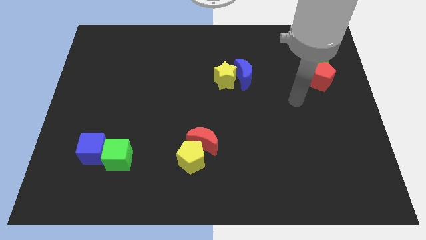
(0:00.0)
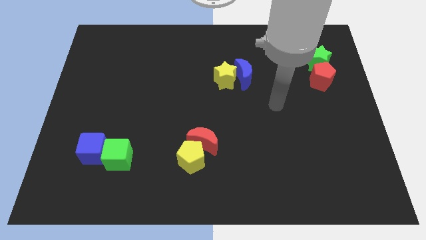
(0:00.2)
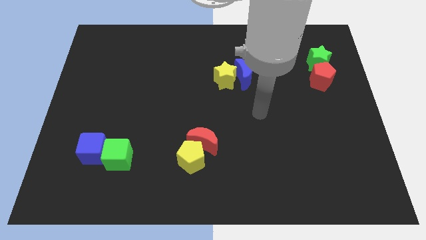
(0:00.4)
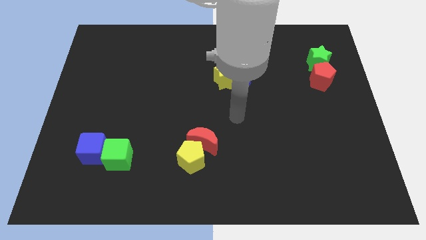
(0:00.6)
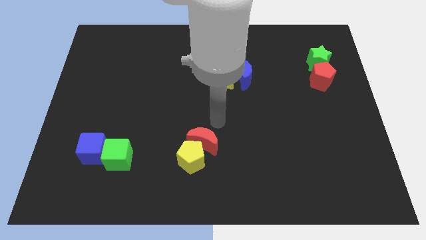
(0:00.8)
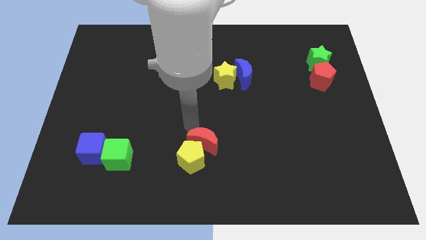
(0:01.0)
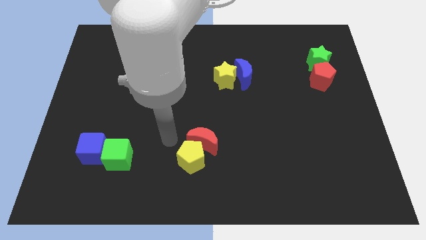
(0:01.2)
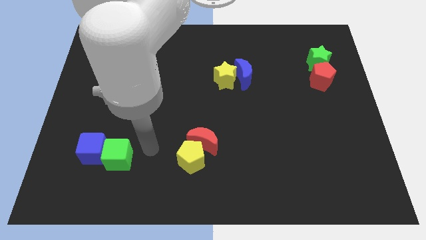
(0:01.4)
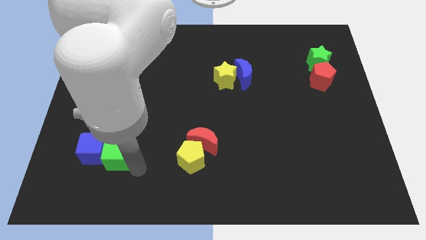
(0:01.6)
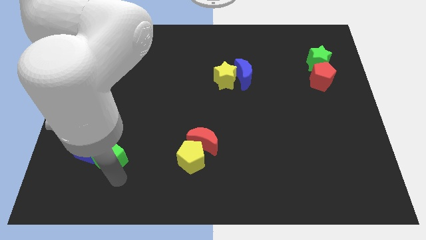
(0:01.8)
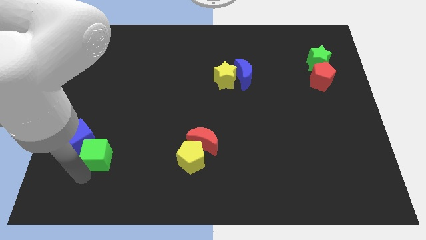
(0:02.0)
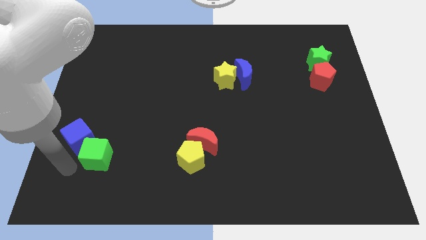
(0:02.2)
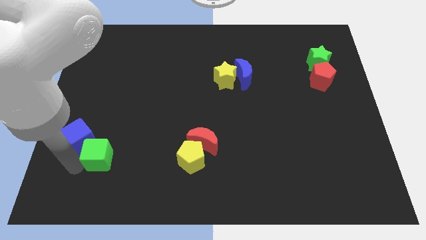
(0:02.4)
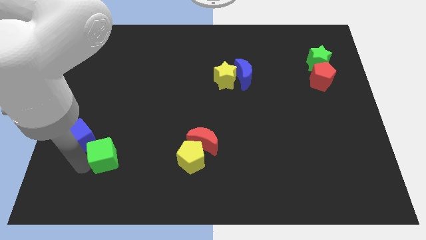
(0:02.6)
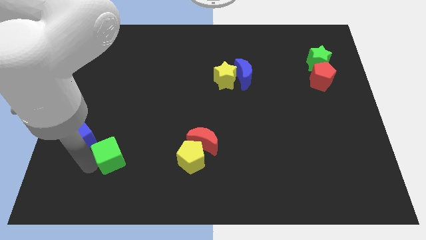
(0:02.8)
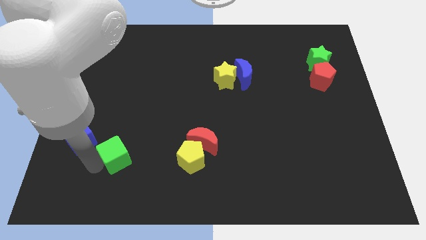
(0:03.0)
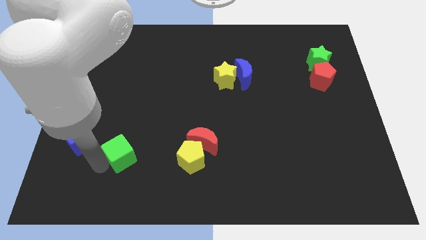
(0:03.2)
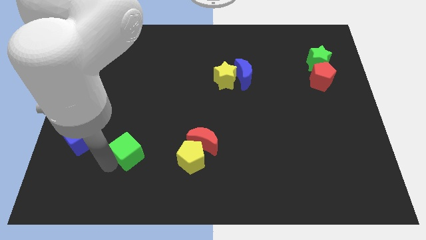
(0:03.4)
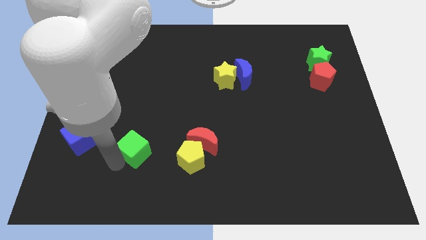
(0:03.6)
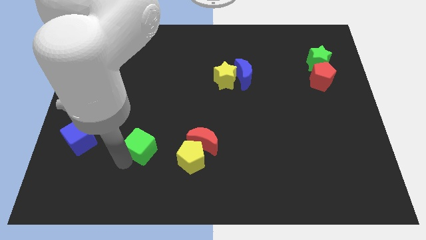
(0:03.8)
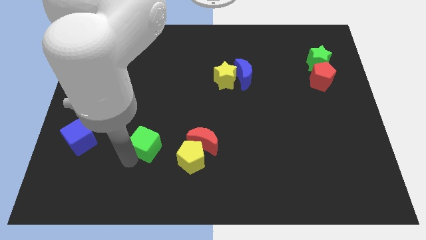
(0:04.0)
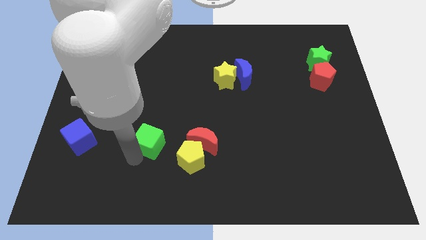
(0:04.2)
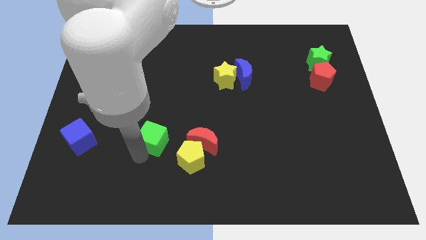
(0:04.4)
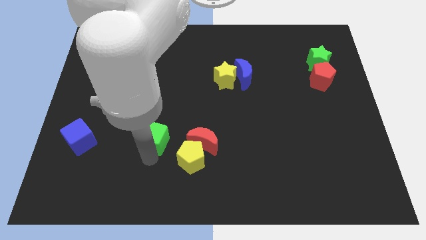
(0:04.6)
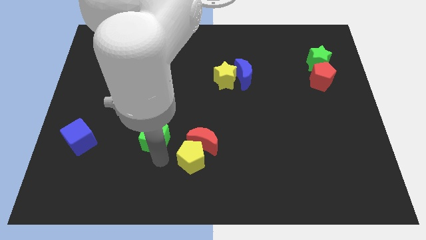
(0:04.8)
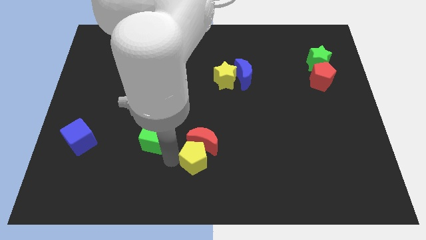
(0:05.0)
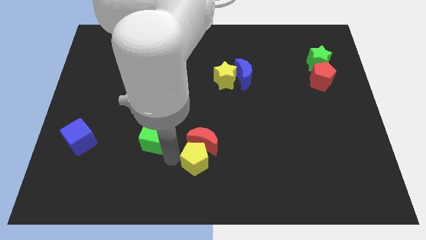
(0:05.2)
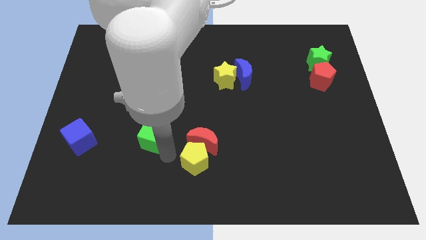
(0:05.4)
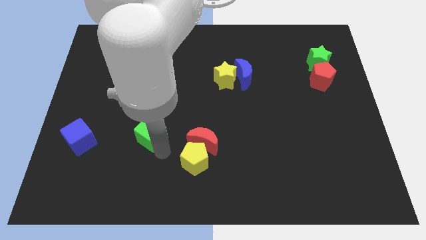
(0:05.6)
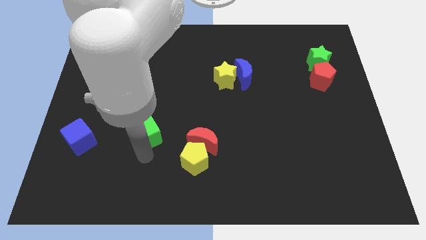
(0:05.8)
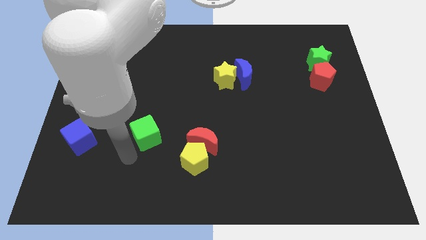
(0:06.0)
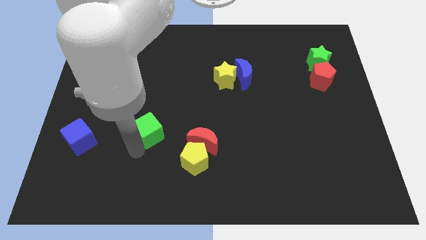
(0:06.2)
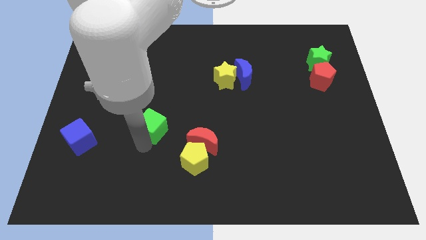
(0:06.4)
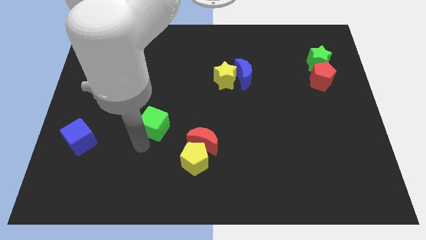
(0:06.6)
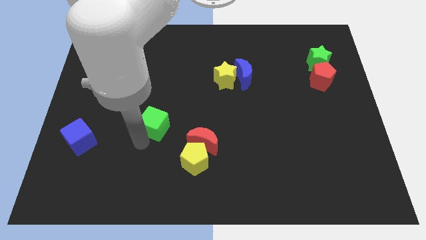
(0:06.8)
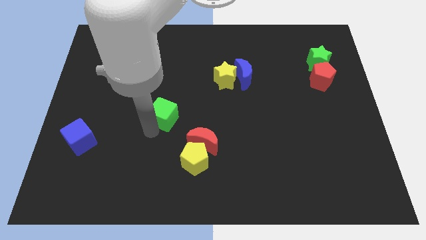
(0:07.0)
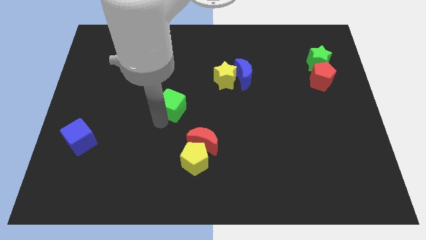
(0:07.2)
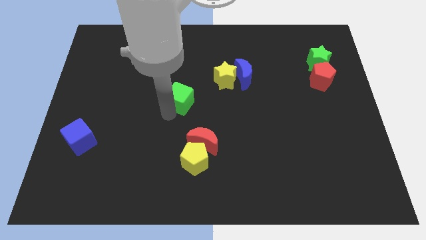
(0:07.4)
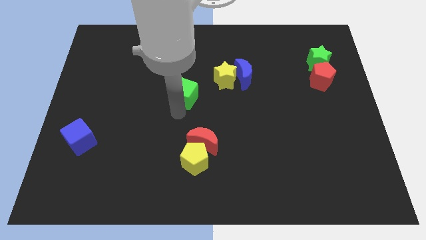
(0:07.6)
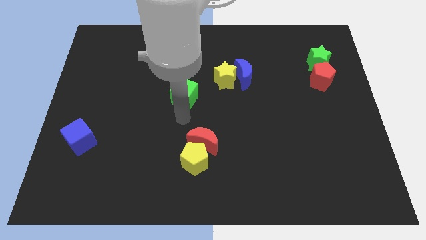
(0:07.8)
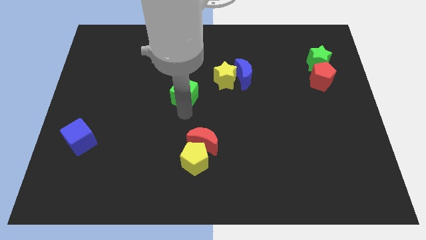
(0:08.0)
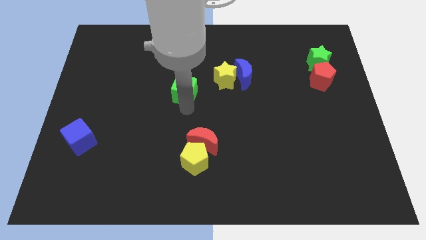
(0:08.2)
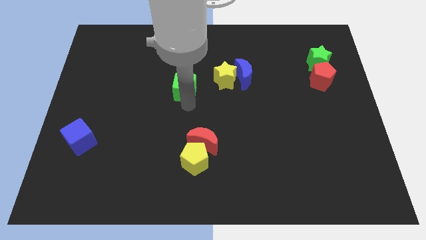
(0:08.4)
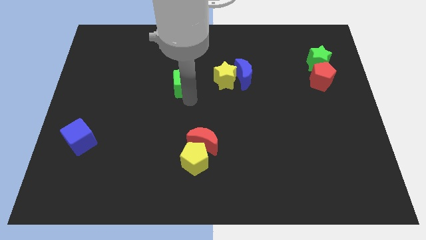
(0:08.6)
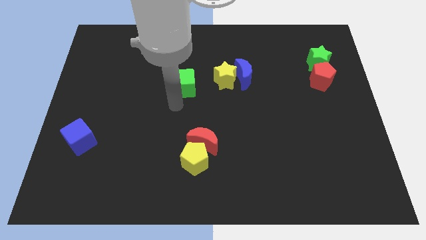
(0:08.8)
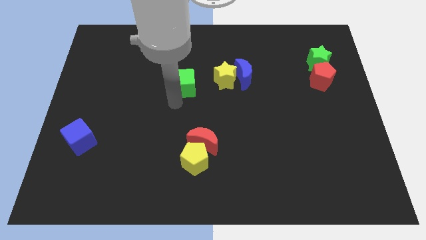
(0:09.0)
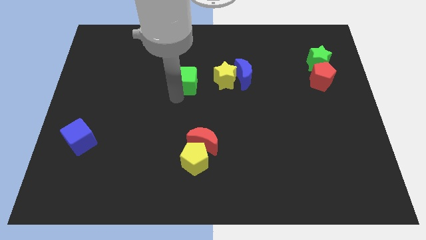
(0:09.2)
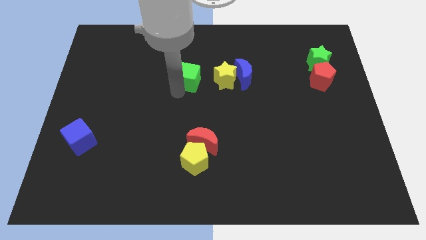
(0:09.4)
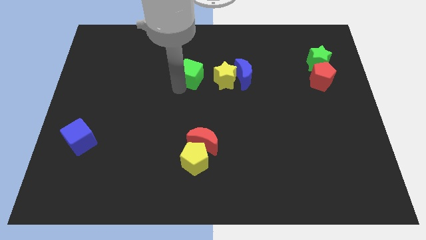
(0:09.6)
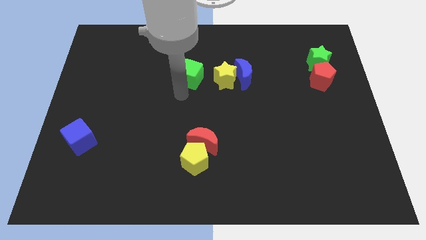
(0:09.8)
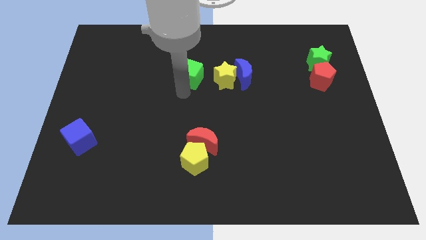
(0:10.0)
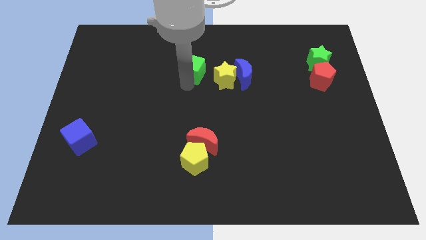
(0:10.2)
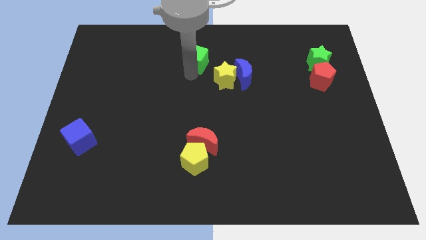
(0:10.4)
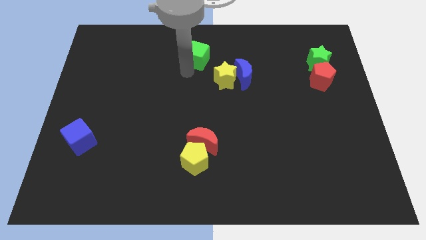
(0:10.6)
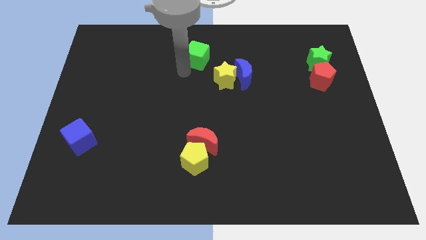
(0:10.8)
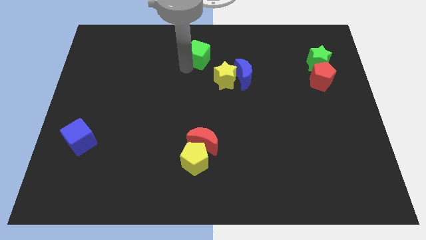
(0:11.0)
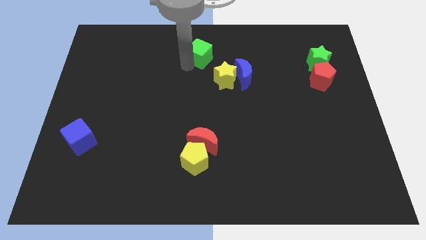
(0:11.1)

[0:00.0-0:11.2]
move the green cube to the towards your base
